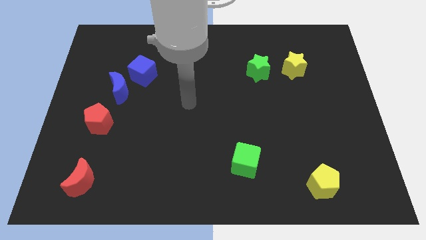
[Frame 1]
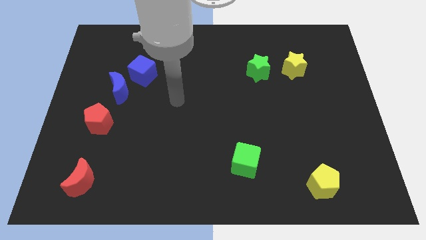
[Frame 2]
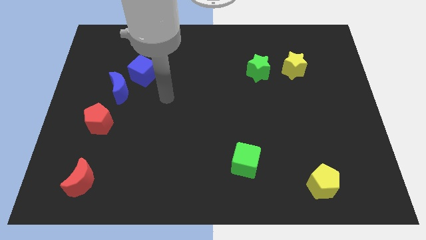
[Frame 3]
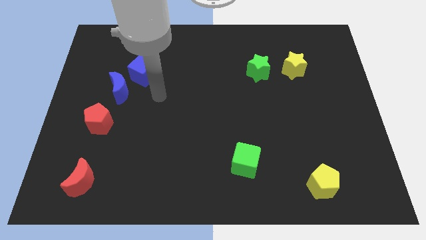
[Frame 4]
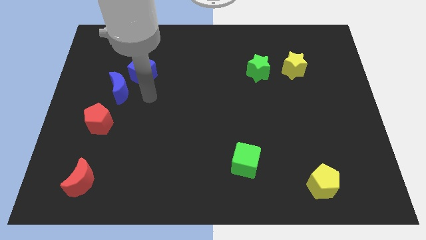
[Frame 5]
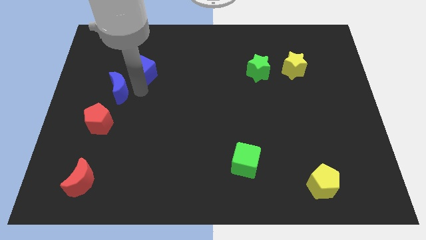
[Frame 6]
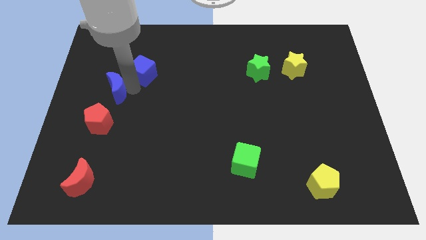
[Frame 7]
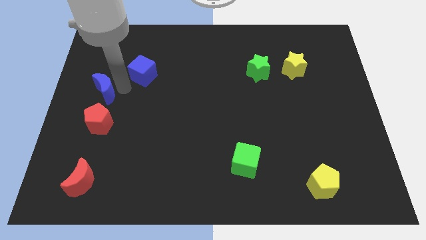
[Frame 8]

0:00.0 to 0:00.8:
separate the blue cube from the blue moon

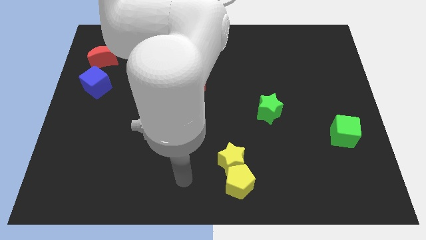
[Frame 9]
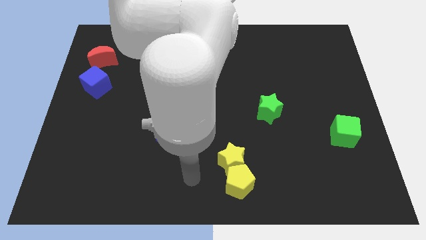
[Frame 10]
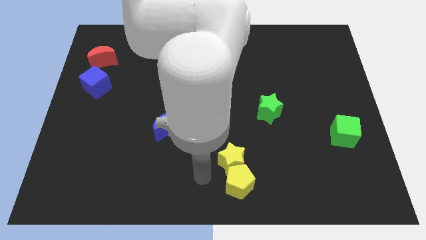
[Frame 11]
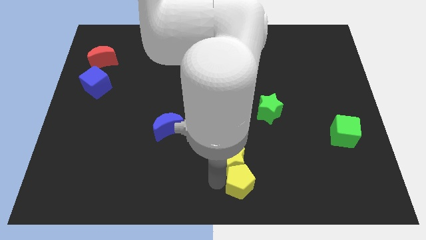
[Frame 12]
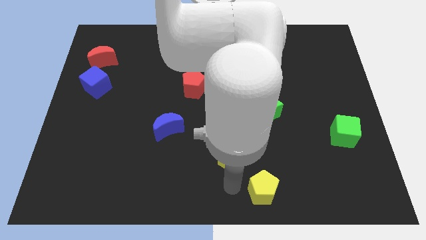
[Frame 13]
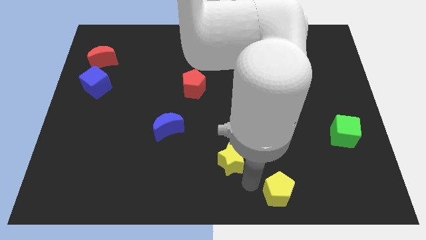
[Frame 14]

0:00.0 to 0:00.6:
pull the yellow star apart from the yellow pentagon

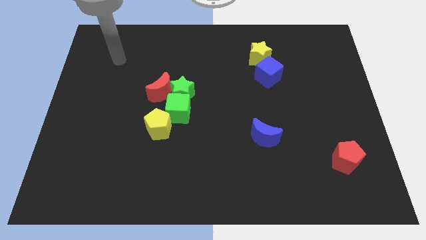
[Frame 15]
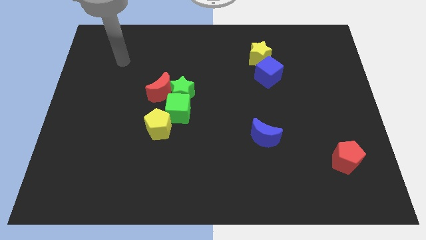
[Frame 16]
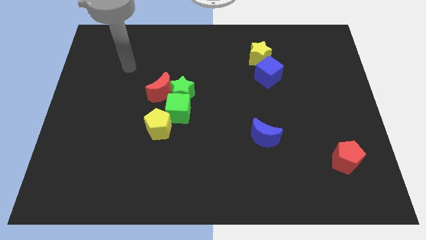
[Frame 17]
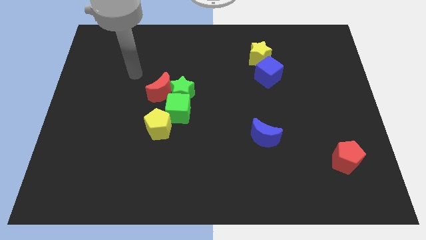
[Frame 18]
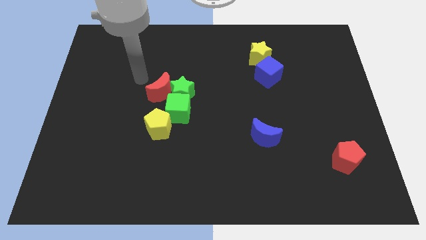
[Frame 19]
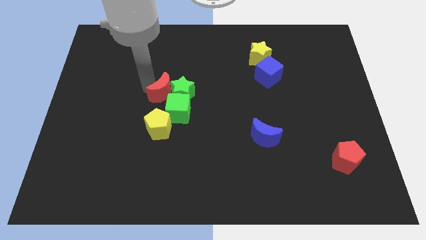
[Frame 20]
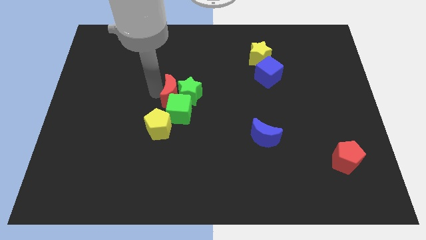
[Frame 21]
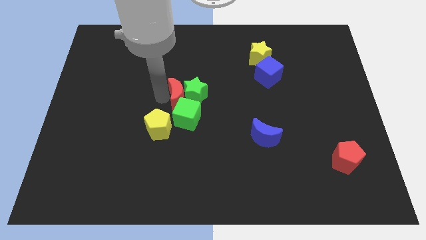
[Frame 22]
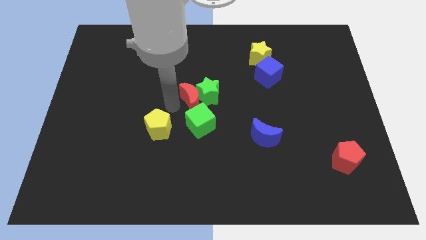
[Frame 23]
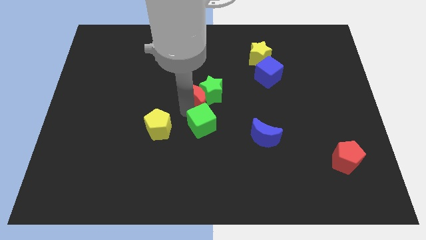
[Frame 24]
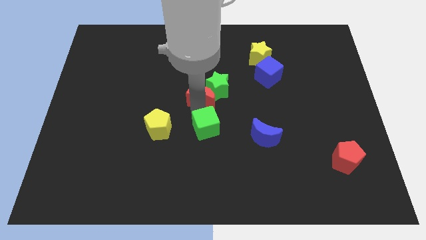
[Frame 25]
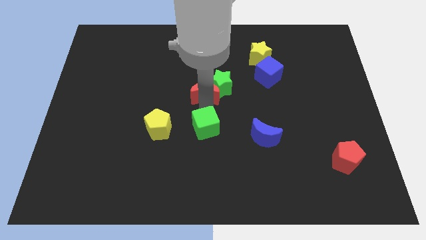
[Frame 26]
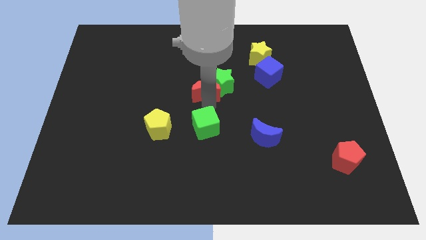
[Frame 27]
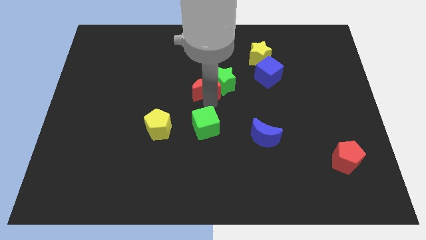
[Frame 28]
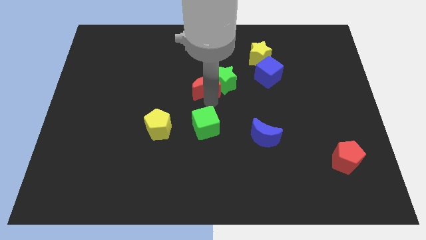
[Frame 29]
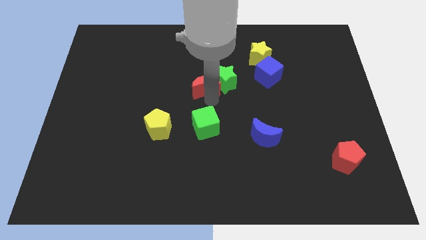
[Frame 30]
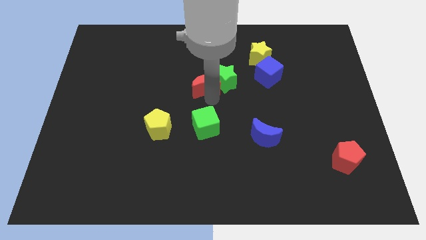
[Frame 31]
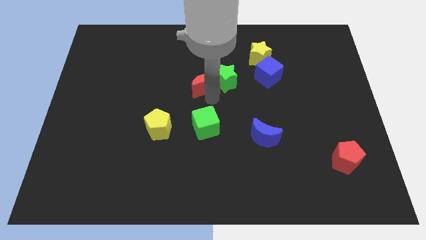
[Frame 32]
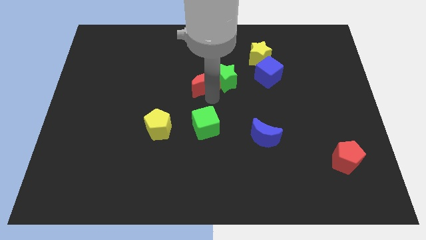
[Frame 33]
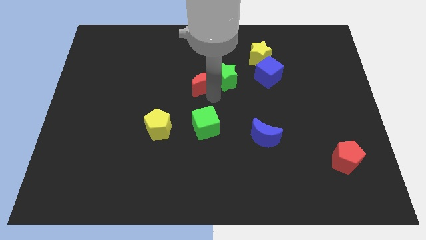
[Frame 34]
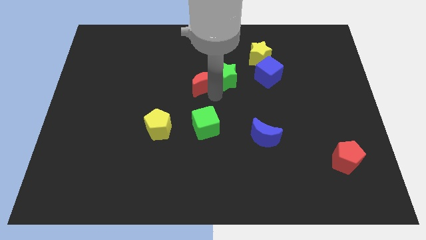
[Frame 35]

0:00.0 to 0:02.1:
pull the green star apart from the red moon and green cube

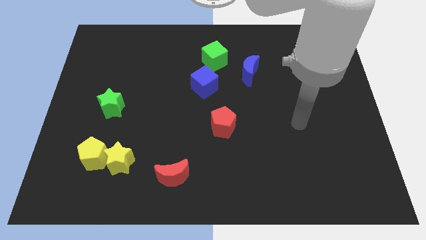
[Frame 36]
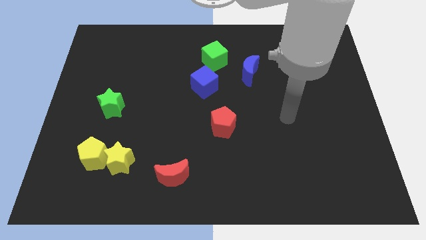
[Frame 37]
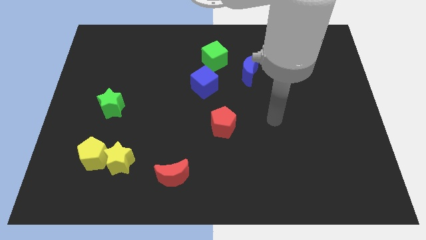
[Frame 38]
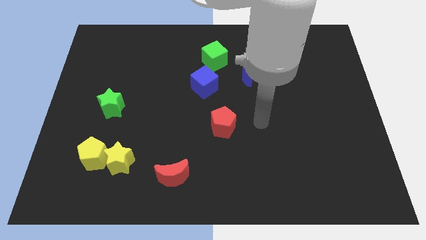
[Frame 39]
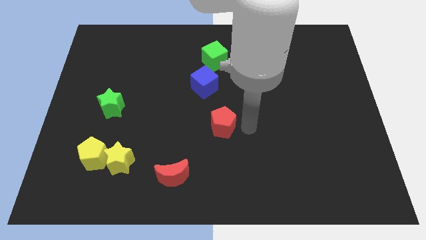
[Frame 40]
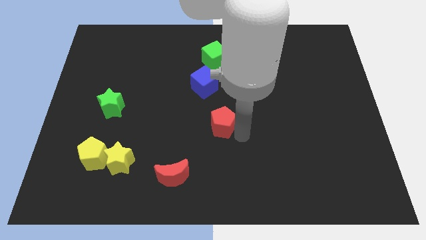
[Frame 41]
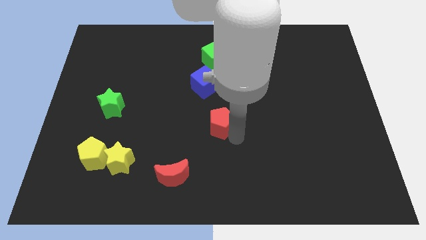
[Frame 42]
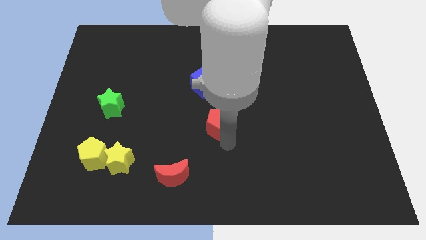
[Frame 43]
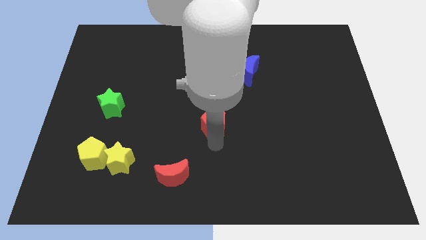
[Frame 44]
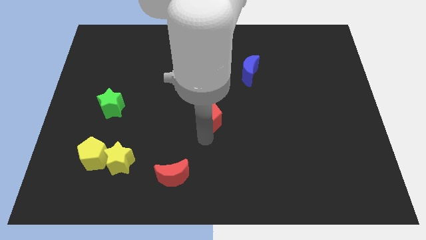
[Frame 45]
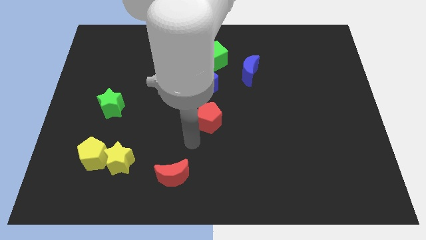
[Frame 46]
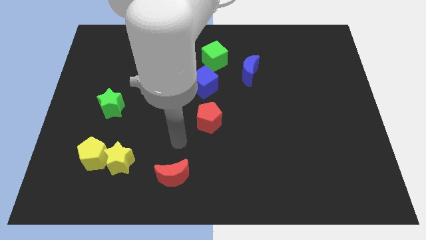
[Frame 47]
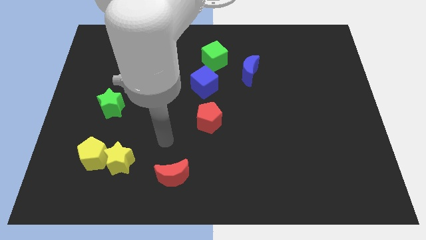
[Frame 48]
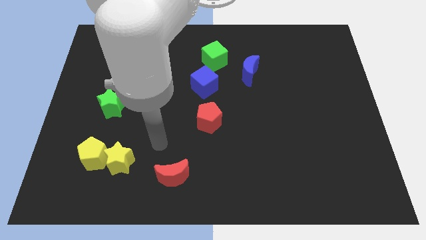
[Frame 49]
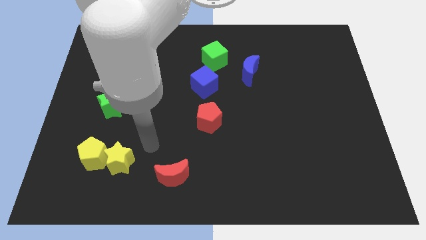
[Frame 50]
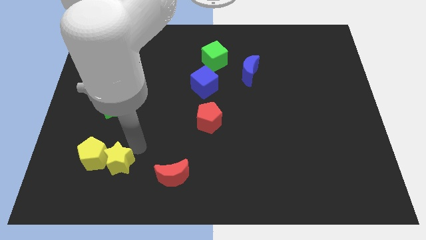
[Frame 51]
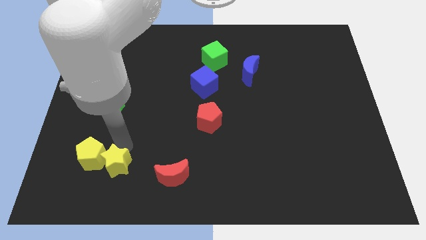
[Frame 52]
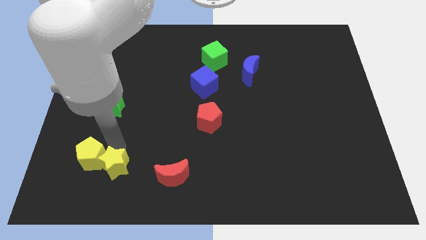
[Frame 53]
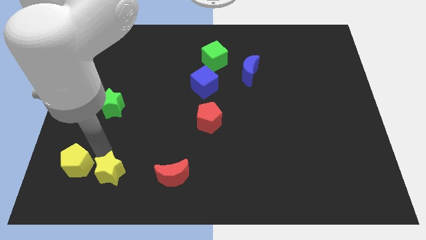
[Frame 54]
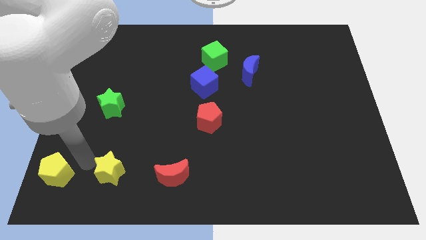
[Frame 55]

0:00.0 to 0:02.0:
separate the yellow star from the yellow pentagon

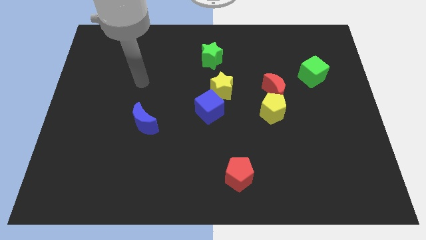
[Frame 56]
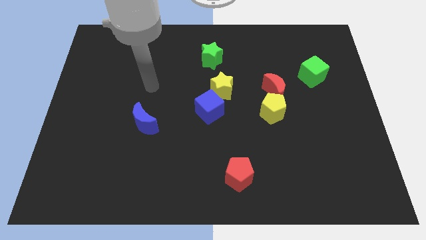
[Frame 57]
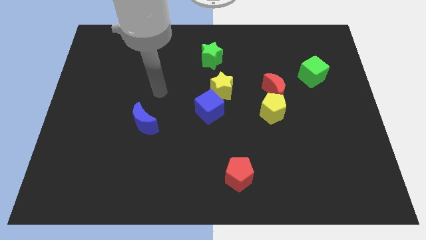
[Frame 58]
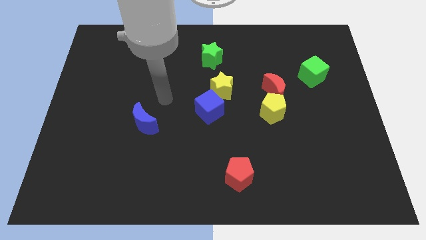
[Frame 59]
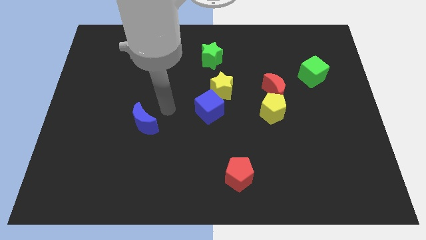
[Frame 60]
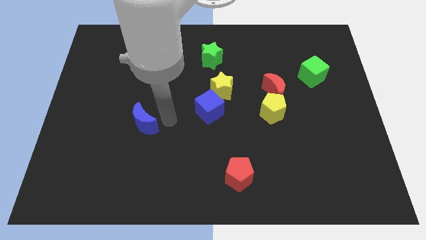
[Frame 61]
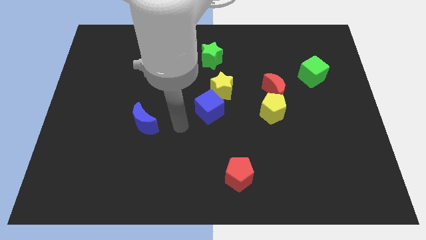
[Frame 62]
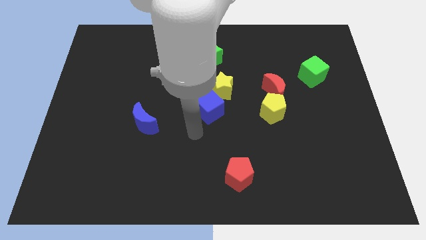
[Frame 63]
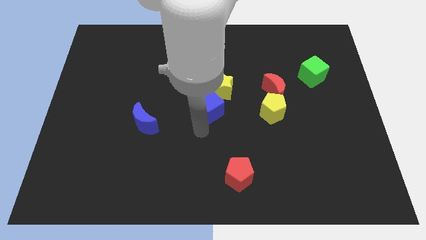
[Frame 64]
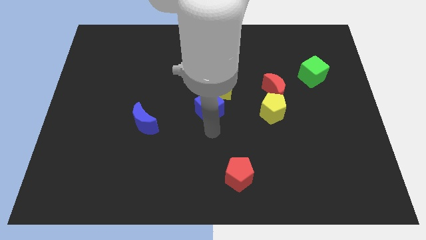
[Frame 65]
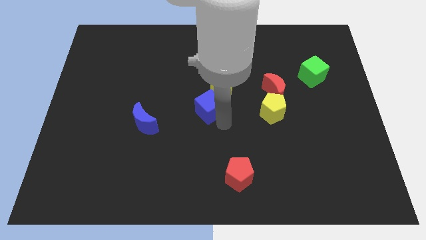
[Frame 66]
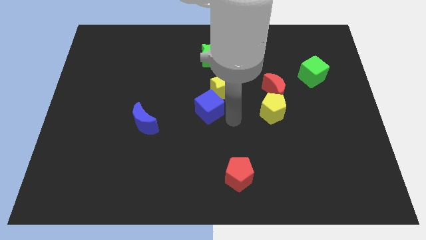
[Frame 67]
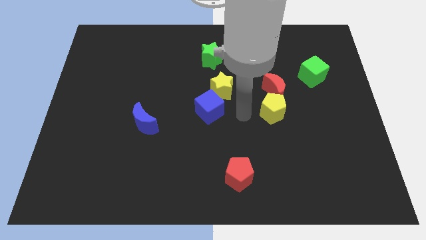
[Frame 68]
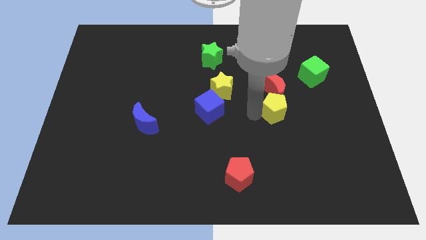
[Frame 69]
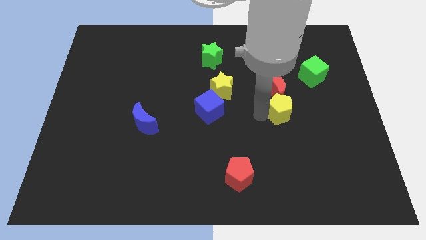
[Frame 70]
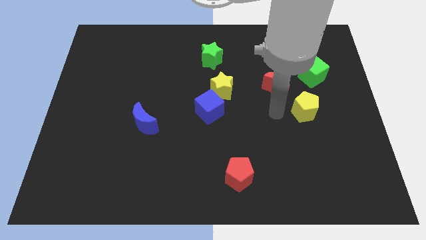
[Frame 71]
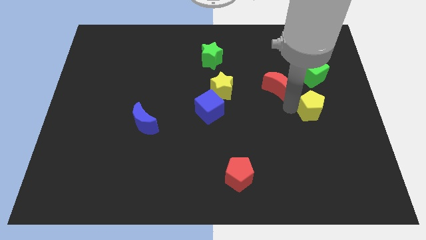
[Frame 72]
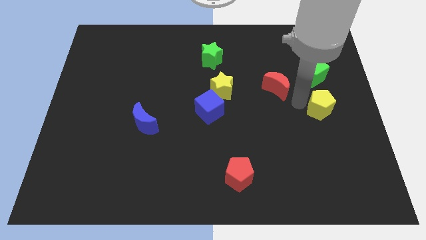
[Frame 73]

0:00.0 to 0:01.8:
pull the red moon apart from the yellow pentagon

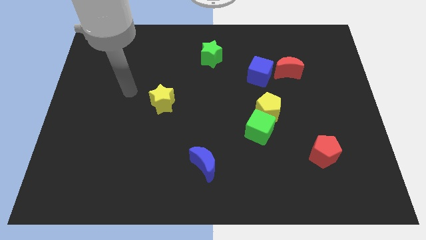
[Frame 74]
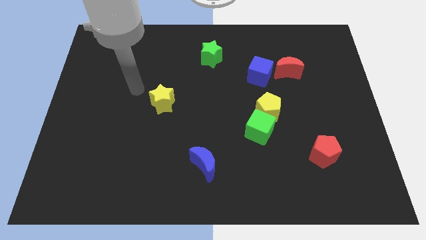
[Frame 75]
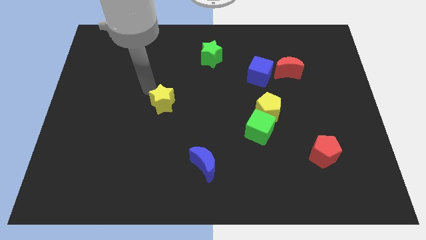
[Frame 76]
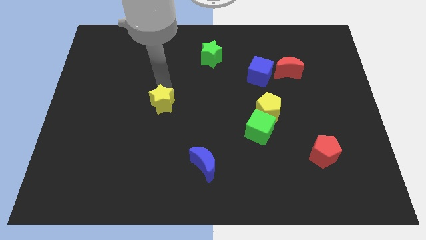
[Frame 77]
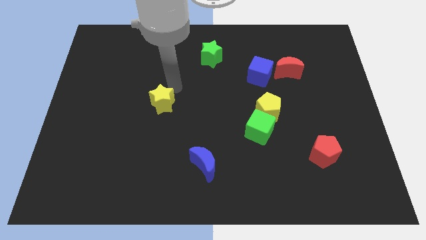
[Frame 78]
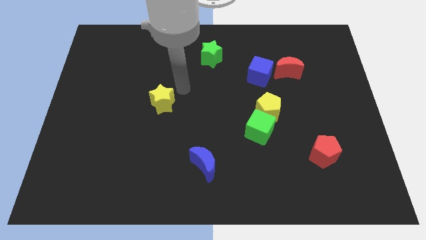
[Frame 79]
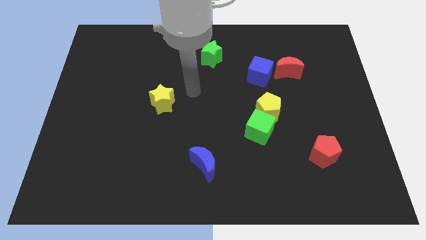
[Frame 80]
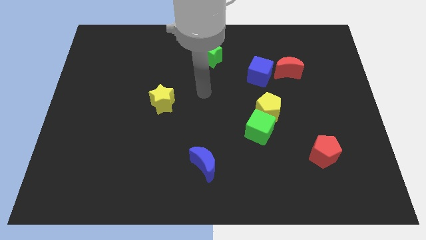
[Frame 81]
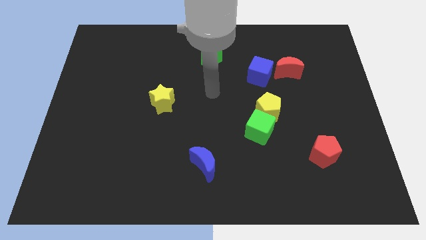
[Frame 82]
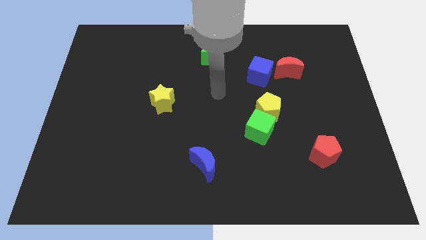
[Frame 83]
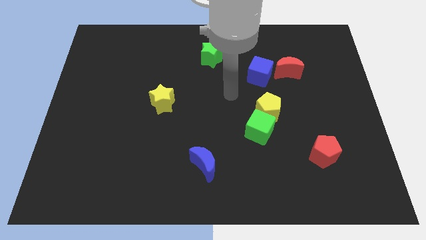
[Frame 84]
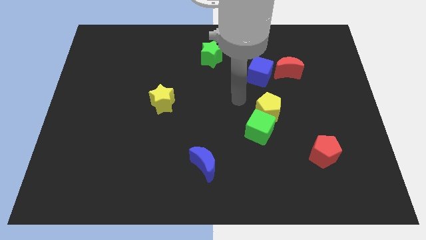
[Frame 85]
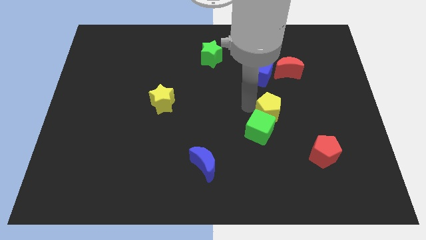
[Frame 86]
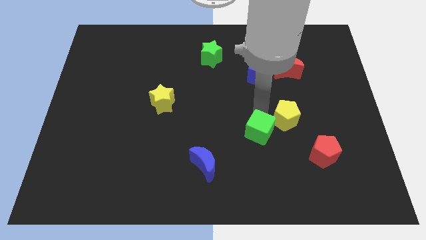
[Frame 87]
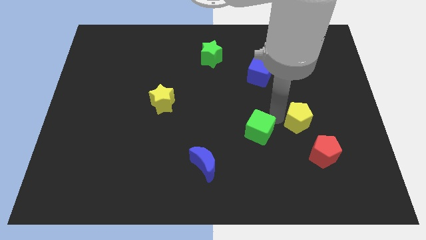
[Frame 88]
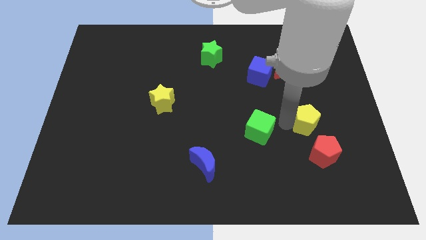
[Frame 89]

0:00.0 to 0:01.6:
pull the green cube apart from the yellow pentagon

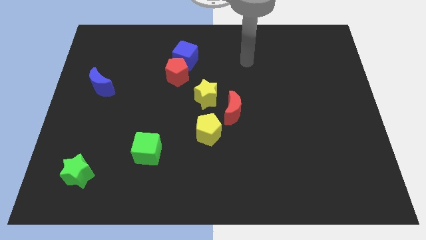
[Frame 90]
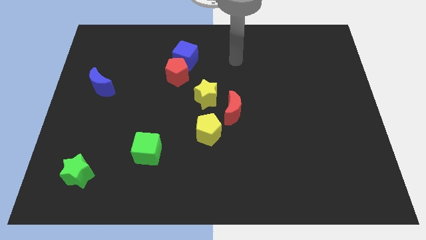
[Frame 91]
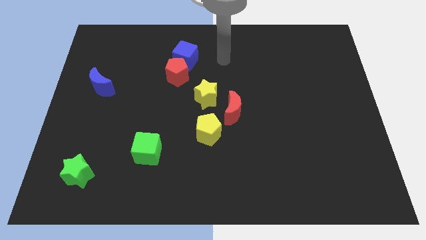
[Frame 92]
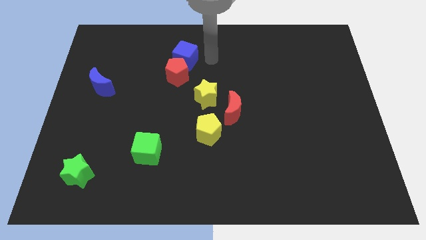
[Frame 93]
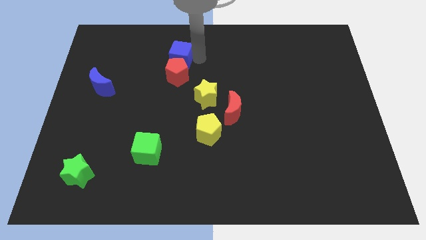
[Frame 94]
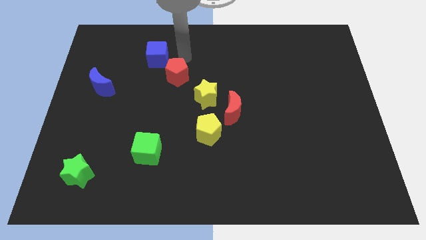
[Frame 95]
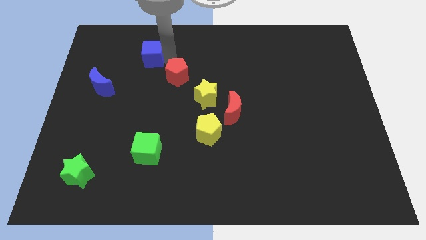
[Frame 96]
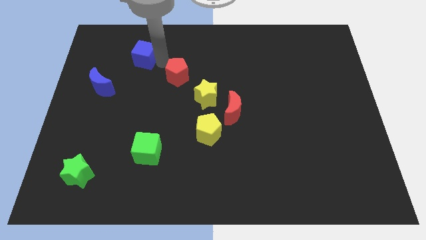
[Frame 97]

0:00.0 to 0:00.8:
move the red pentagon away from the blue cube
